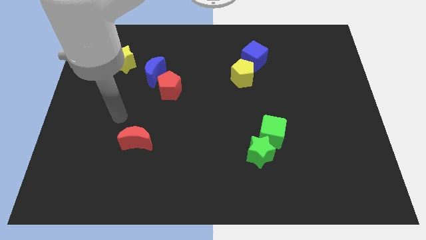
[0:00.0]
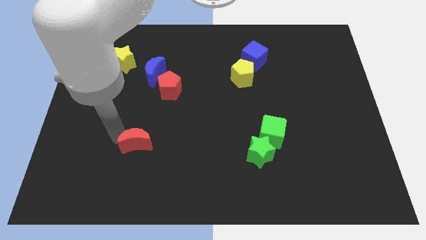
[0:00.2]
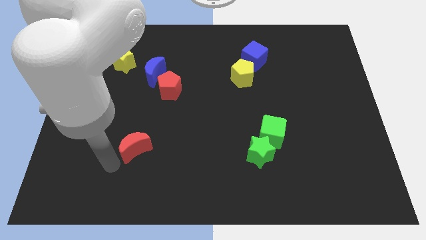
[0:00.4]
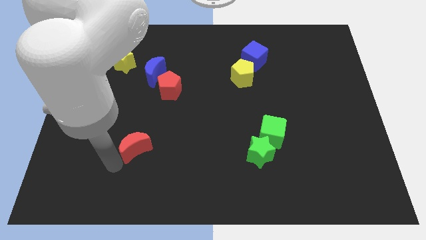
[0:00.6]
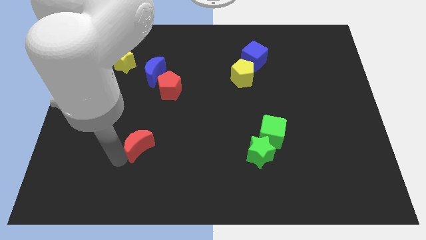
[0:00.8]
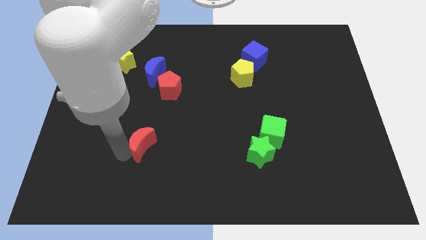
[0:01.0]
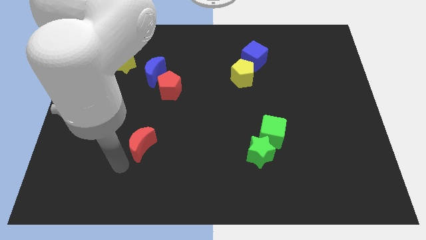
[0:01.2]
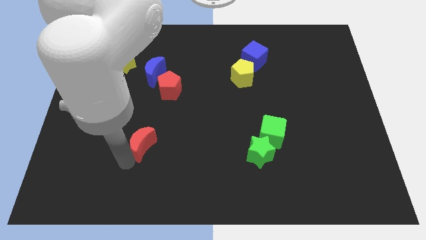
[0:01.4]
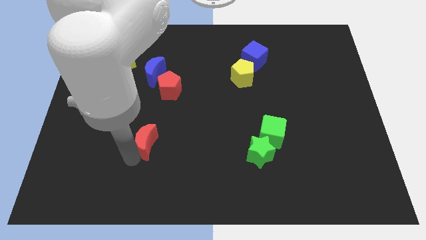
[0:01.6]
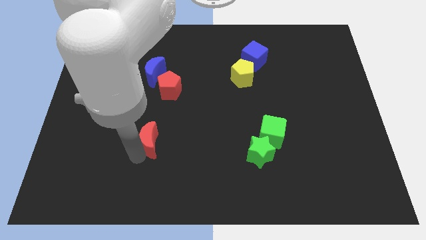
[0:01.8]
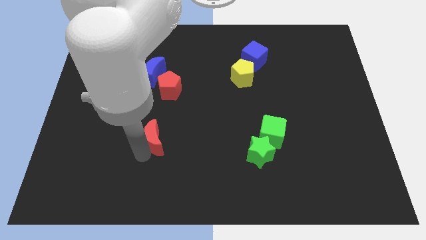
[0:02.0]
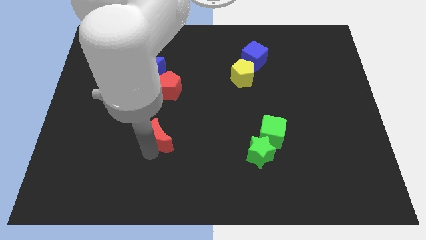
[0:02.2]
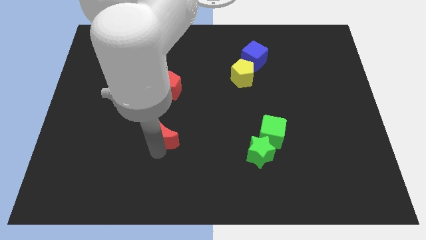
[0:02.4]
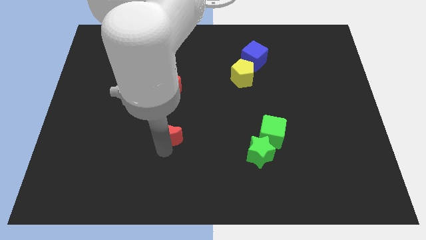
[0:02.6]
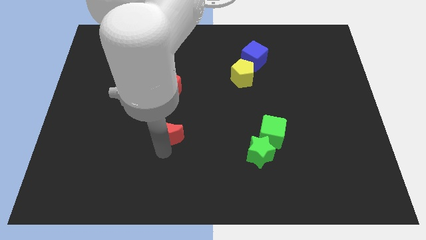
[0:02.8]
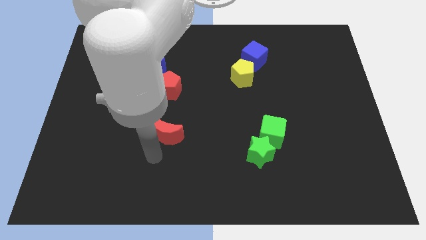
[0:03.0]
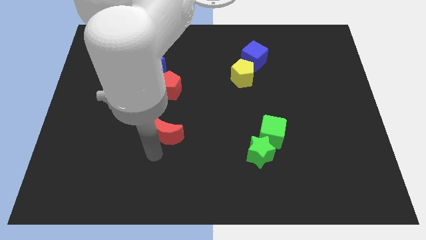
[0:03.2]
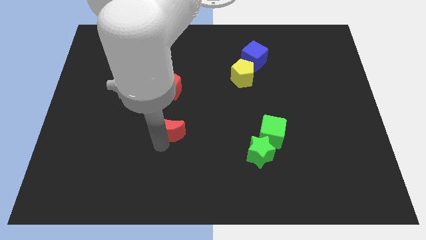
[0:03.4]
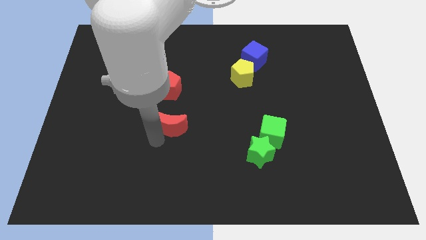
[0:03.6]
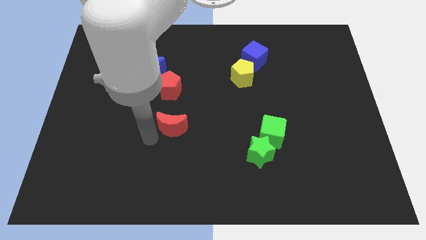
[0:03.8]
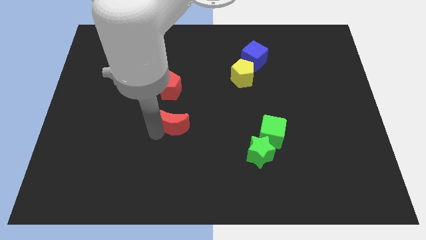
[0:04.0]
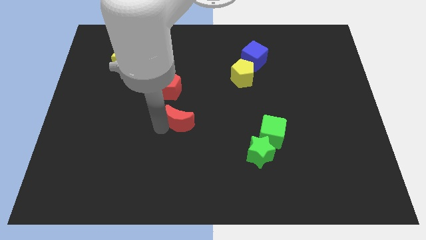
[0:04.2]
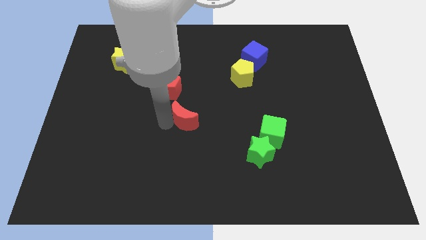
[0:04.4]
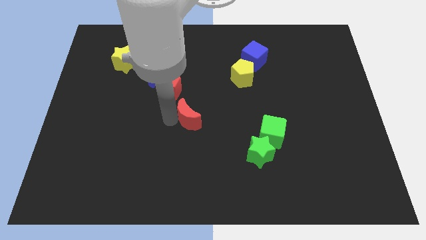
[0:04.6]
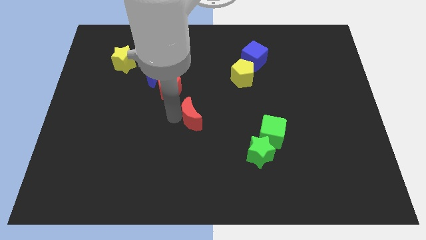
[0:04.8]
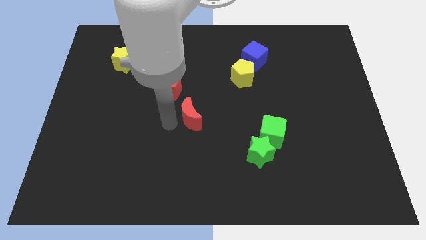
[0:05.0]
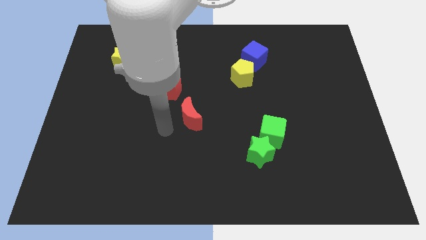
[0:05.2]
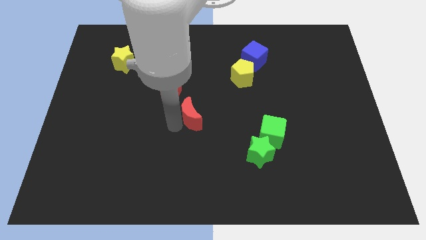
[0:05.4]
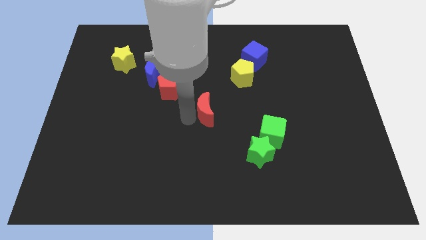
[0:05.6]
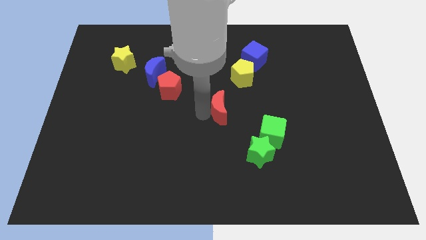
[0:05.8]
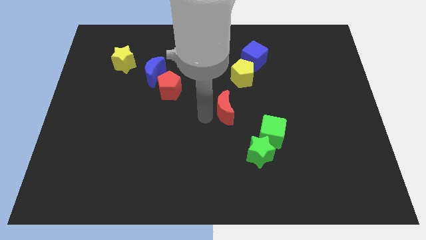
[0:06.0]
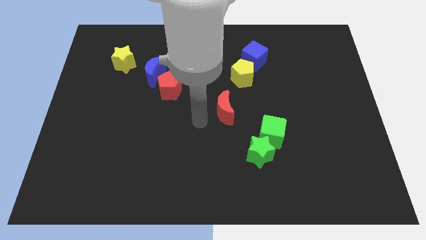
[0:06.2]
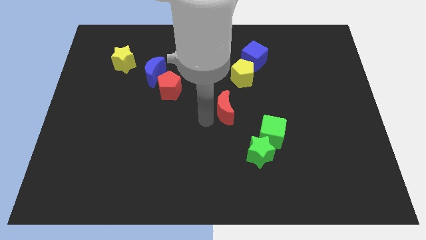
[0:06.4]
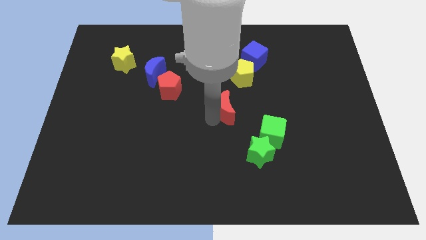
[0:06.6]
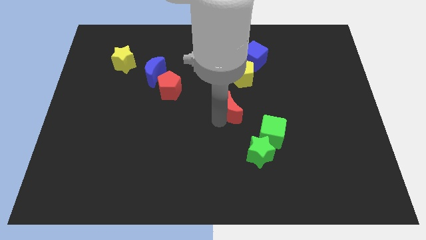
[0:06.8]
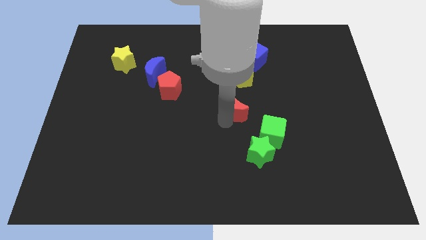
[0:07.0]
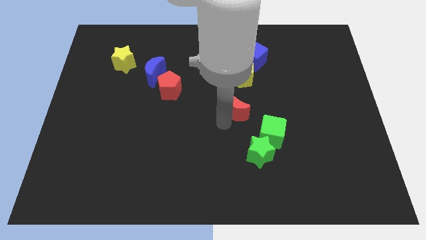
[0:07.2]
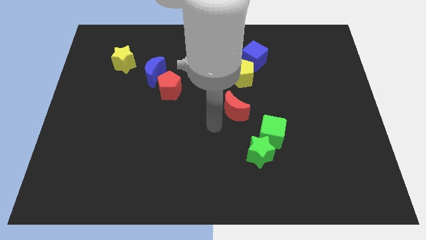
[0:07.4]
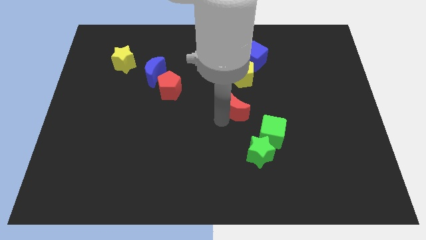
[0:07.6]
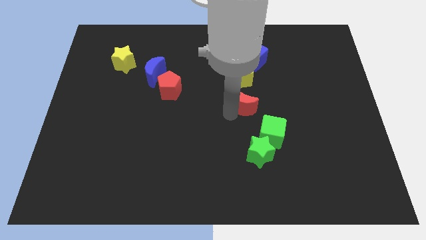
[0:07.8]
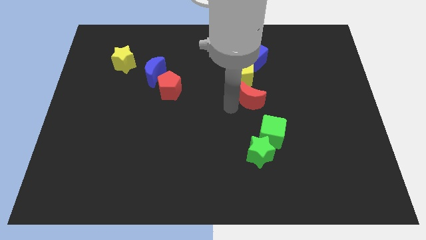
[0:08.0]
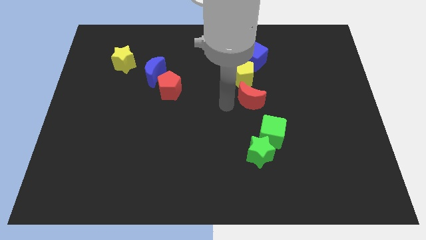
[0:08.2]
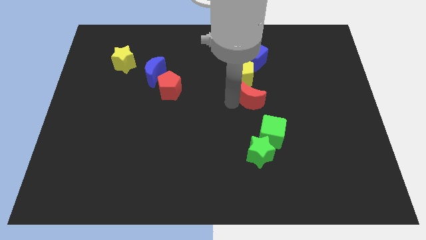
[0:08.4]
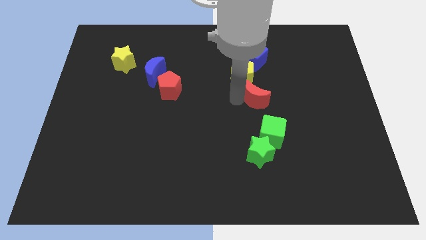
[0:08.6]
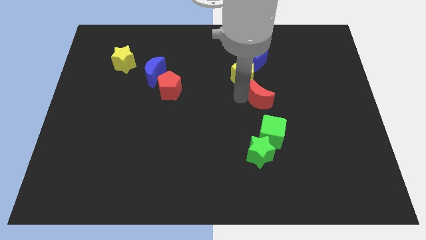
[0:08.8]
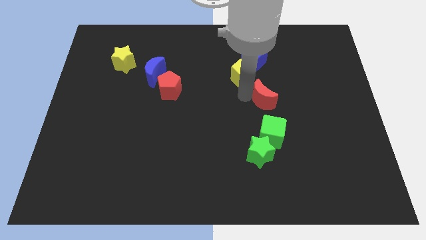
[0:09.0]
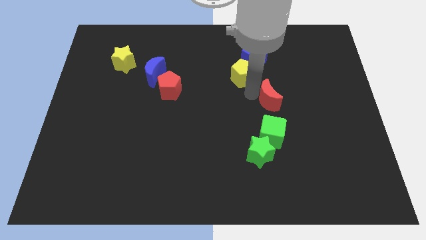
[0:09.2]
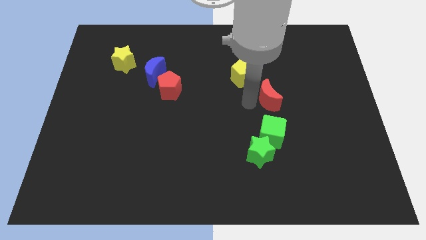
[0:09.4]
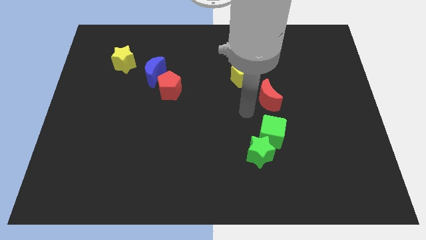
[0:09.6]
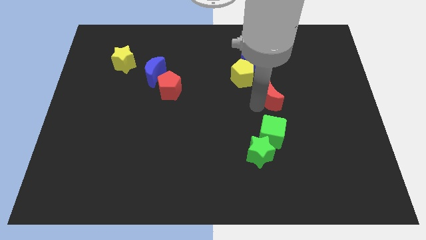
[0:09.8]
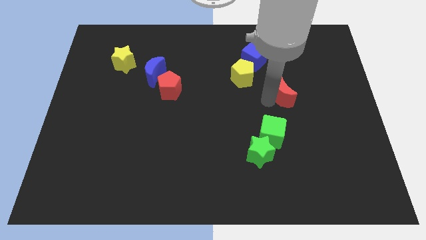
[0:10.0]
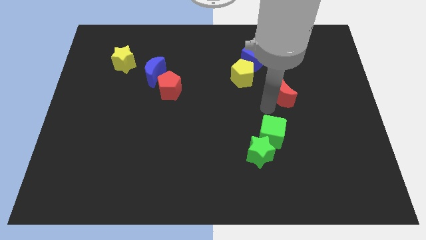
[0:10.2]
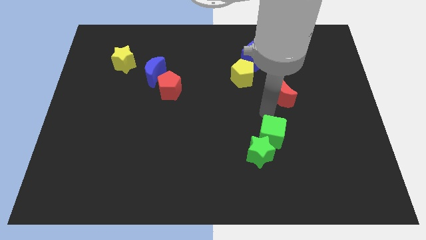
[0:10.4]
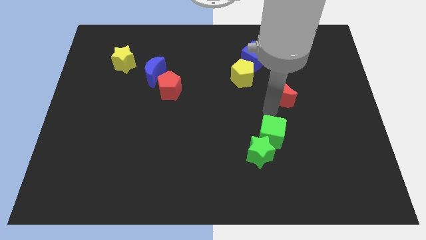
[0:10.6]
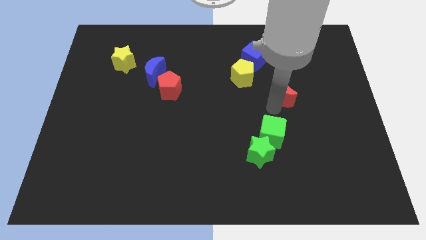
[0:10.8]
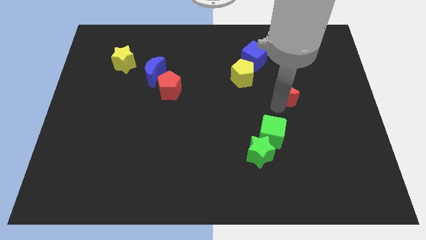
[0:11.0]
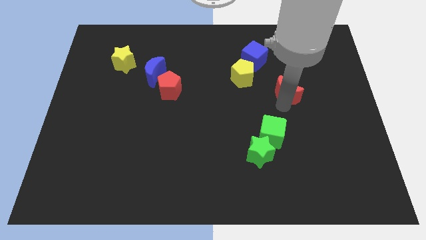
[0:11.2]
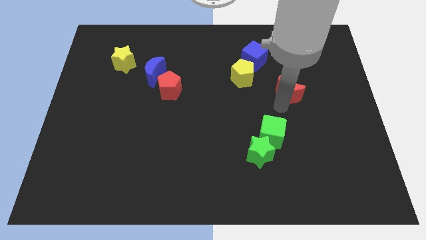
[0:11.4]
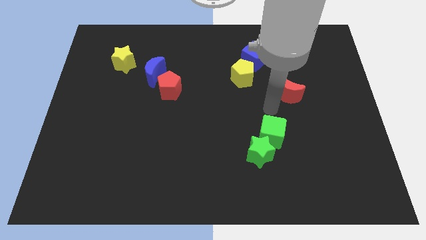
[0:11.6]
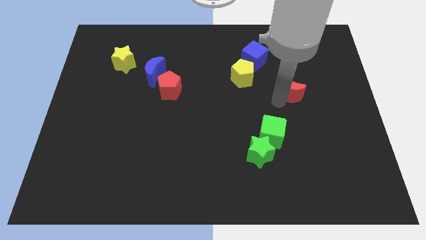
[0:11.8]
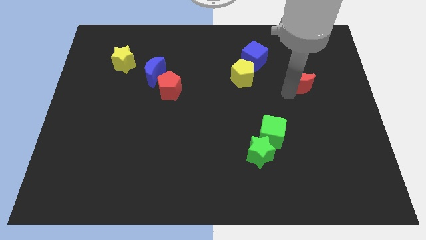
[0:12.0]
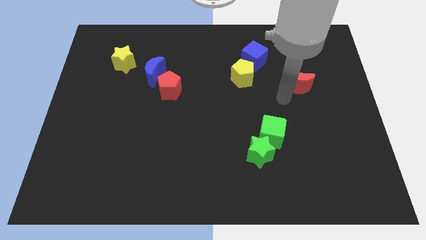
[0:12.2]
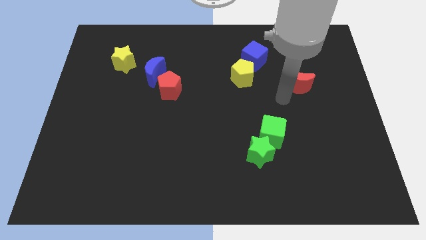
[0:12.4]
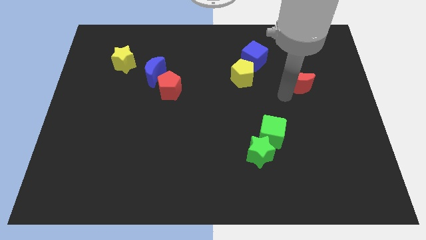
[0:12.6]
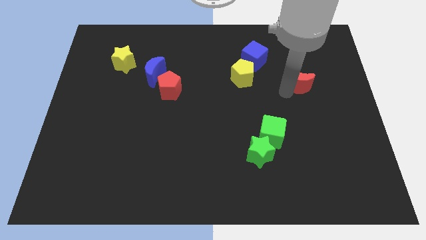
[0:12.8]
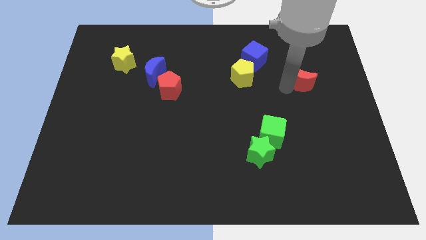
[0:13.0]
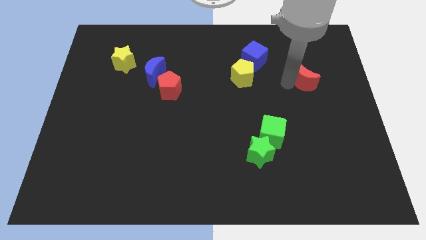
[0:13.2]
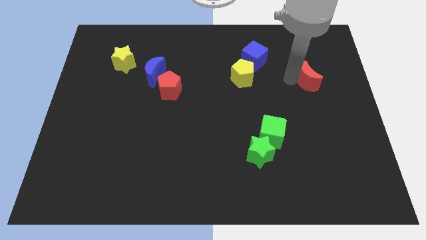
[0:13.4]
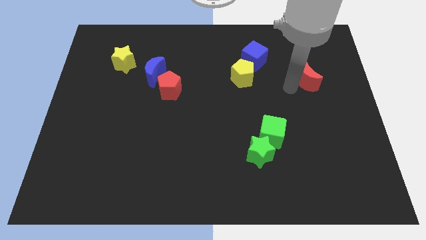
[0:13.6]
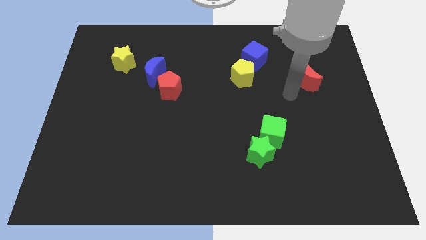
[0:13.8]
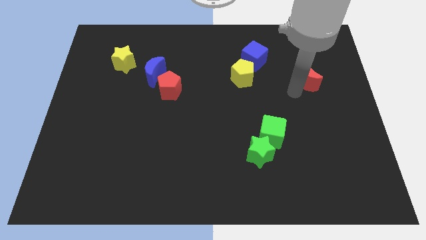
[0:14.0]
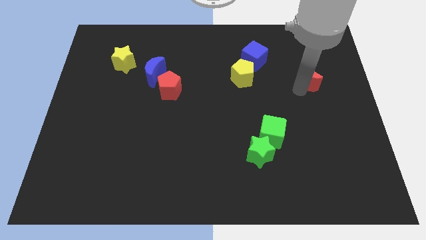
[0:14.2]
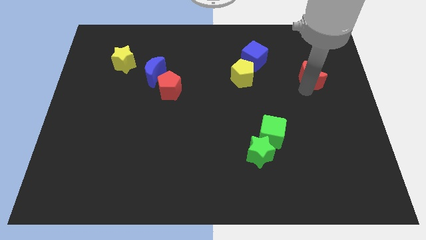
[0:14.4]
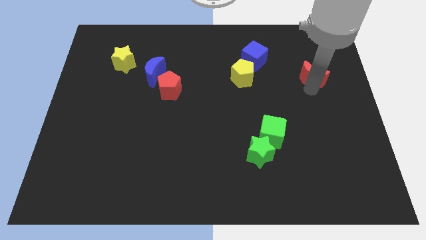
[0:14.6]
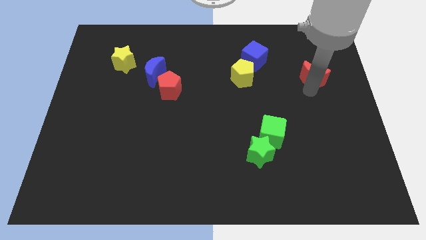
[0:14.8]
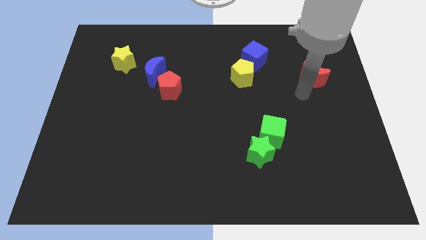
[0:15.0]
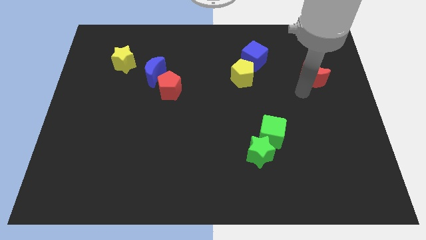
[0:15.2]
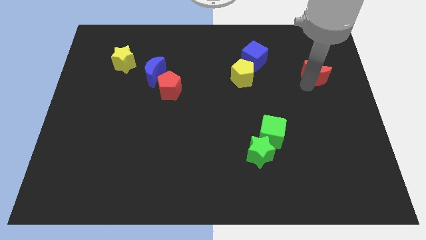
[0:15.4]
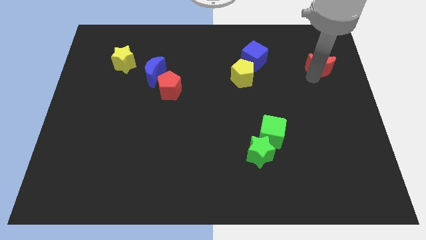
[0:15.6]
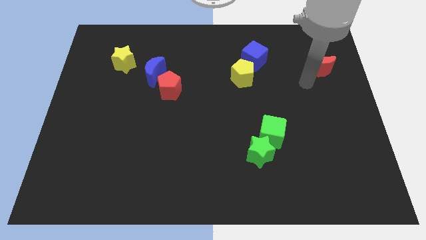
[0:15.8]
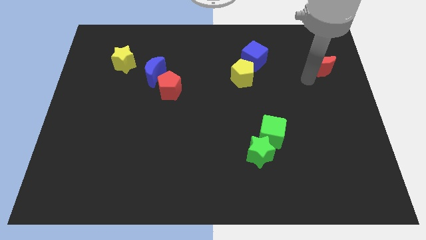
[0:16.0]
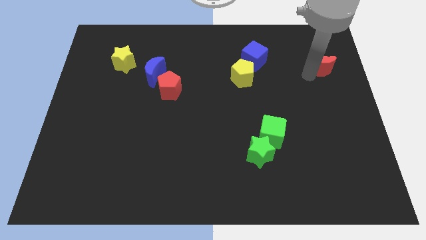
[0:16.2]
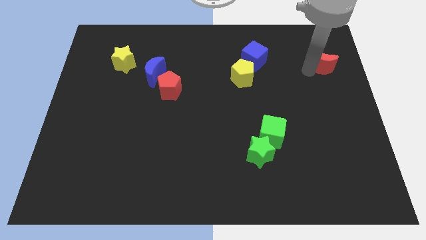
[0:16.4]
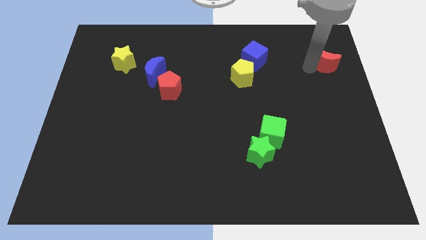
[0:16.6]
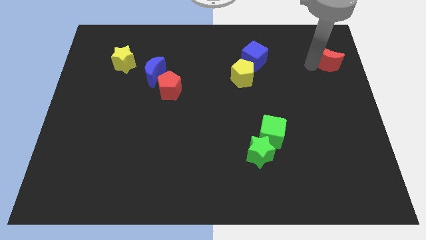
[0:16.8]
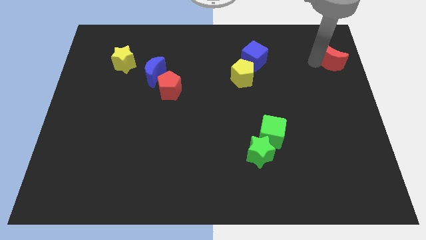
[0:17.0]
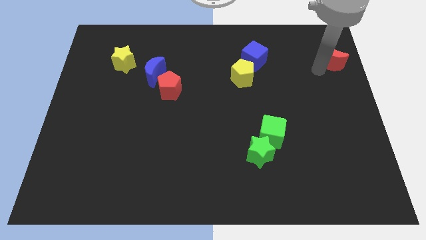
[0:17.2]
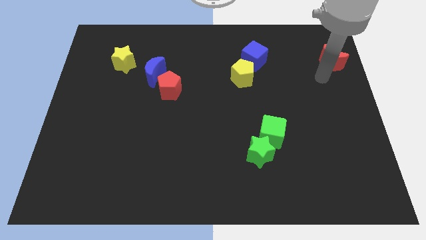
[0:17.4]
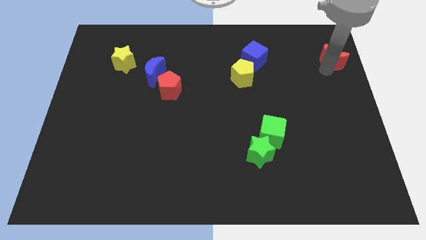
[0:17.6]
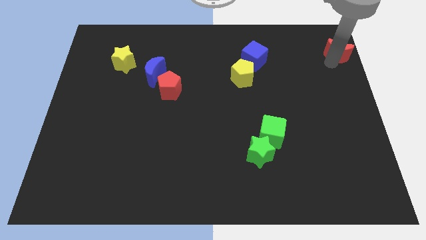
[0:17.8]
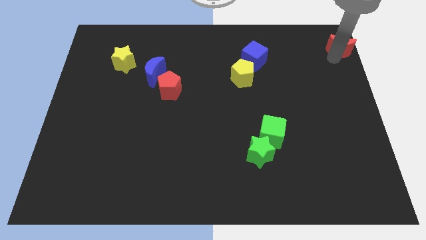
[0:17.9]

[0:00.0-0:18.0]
slide the red moon to the top right of the board
